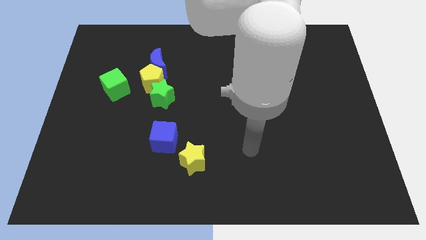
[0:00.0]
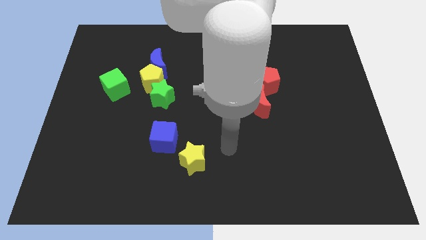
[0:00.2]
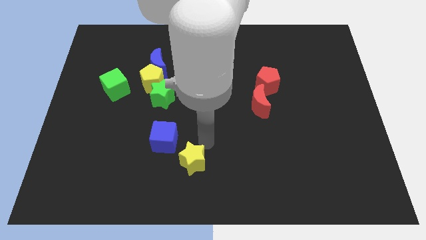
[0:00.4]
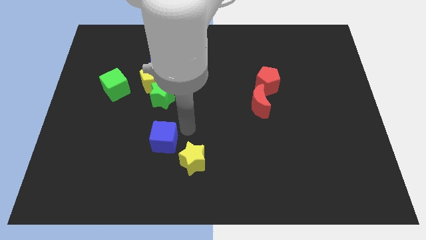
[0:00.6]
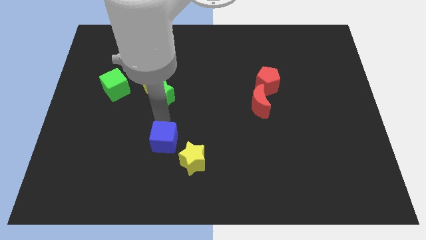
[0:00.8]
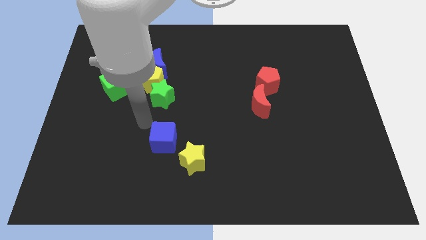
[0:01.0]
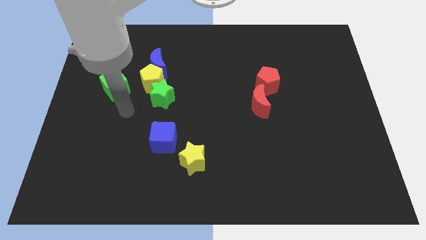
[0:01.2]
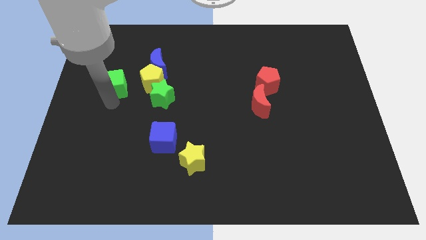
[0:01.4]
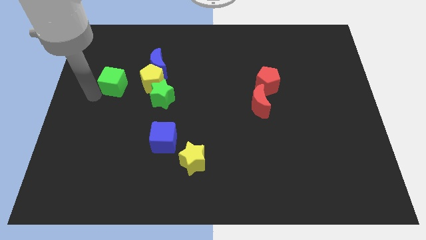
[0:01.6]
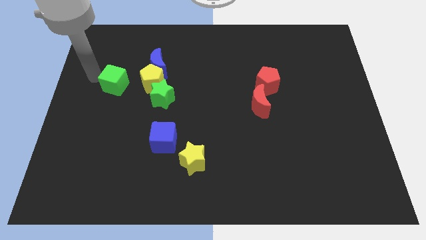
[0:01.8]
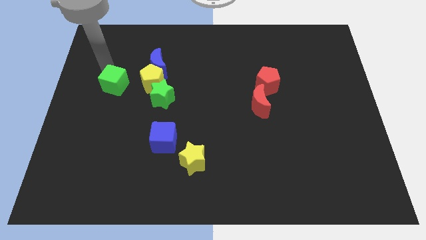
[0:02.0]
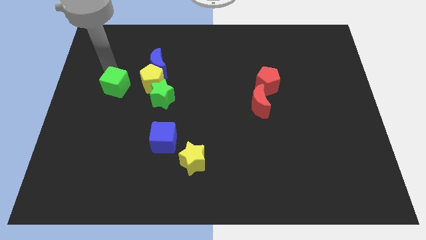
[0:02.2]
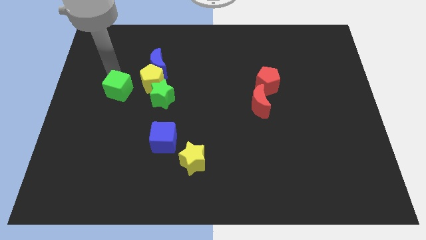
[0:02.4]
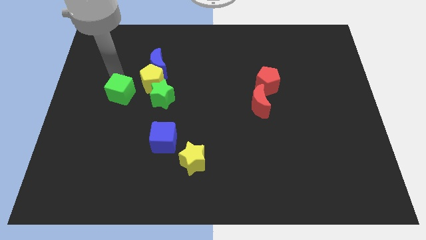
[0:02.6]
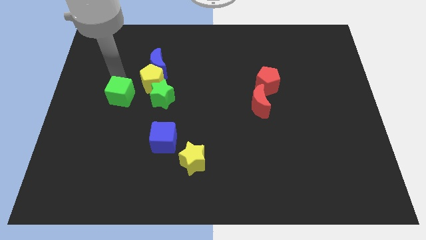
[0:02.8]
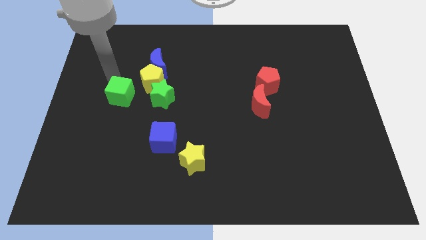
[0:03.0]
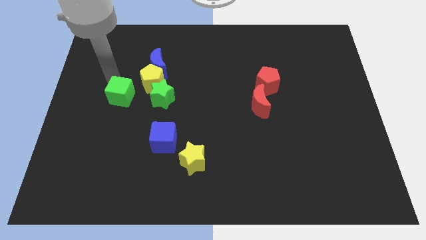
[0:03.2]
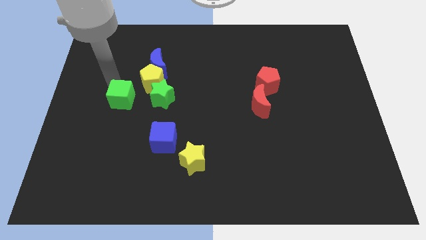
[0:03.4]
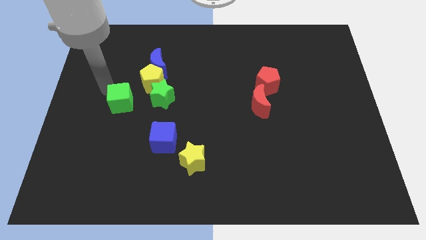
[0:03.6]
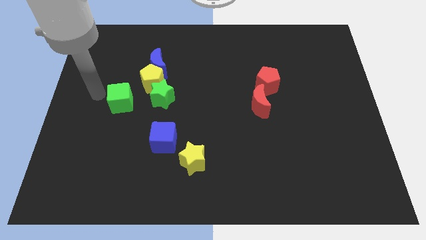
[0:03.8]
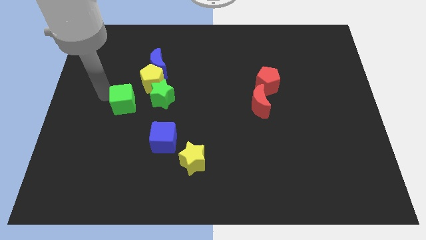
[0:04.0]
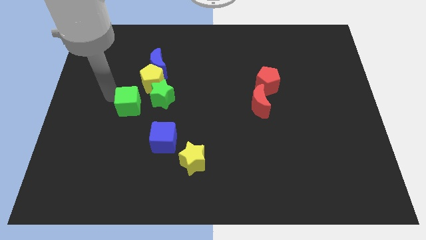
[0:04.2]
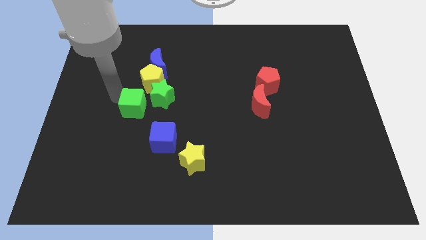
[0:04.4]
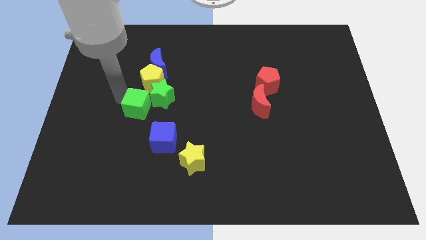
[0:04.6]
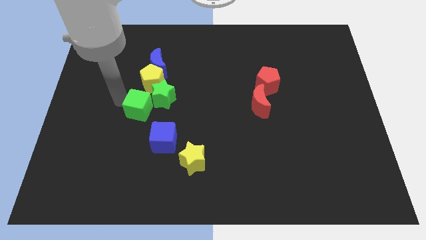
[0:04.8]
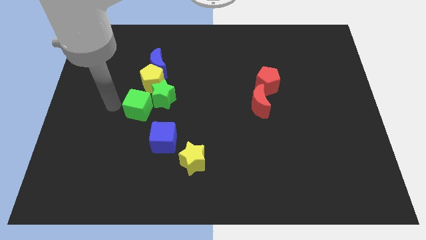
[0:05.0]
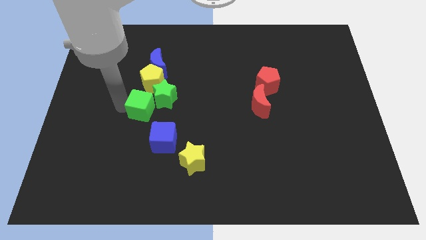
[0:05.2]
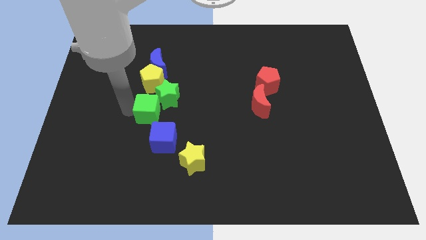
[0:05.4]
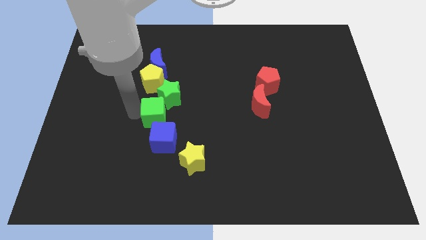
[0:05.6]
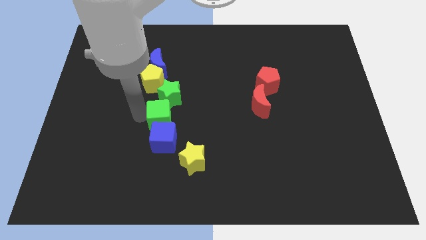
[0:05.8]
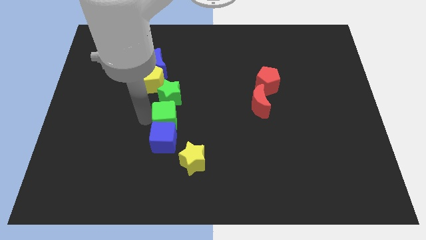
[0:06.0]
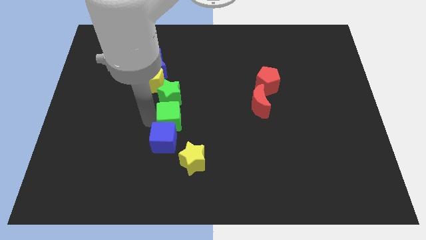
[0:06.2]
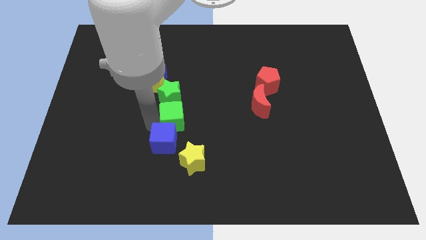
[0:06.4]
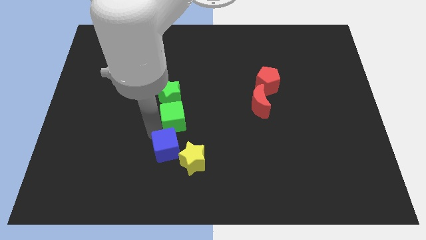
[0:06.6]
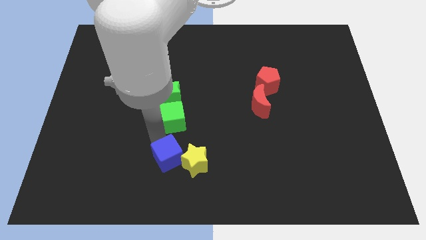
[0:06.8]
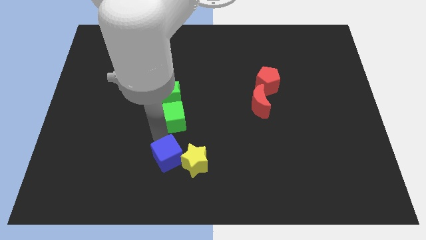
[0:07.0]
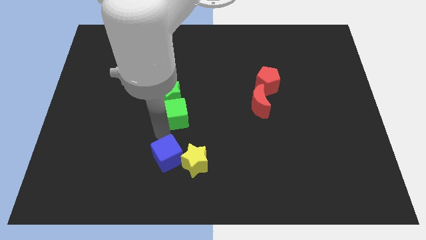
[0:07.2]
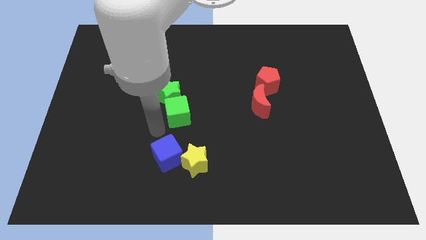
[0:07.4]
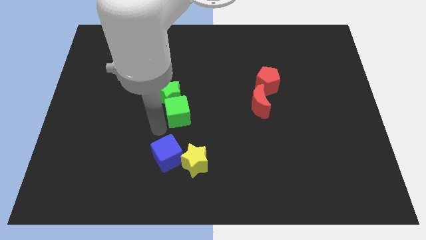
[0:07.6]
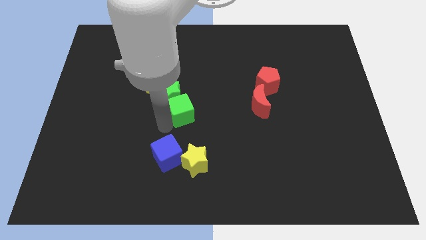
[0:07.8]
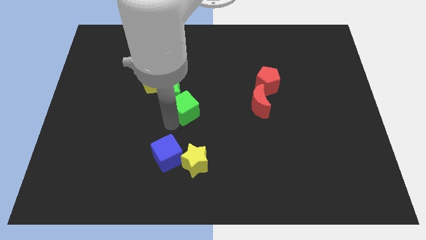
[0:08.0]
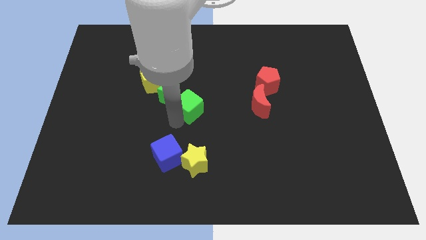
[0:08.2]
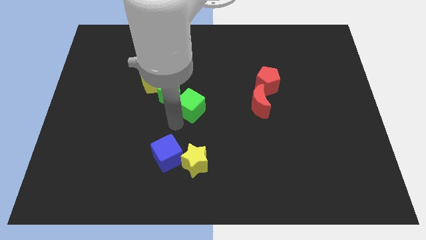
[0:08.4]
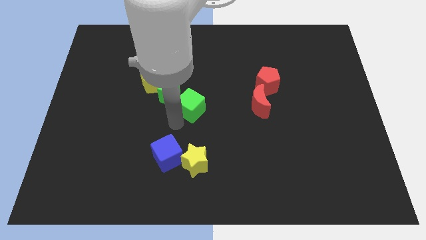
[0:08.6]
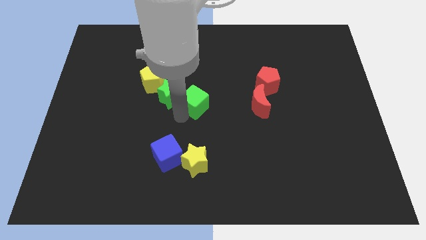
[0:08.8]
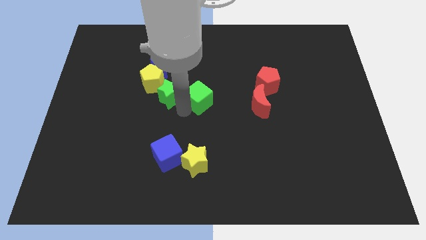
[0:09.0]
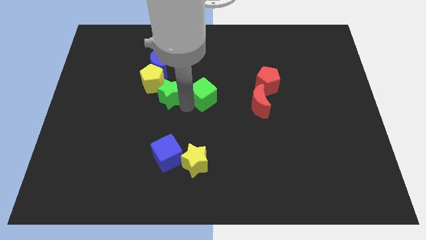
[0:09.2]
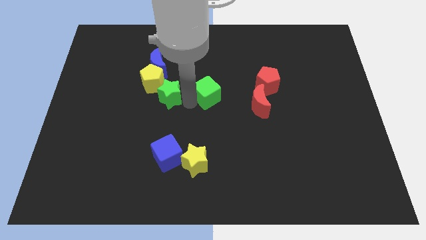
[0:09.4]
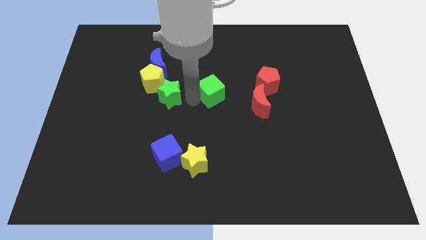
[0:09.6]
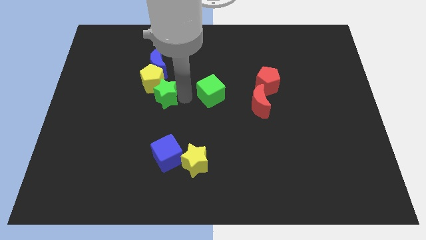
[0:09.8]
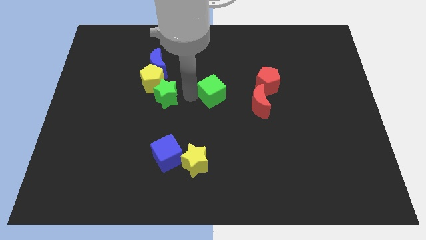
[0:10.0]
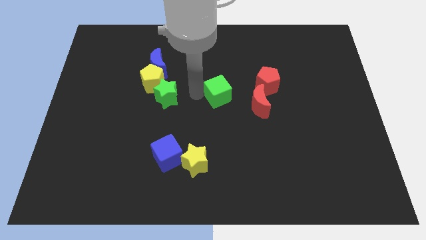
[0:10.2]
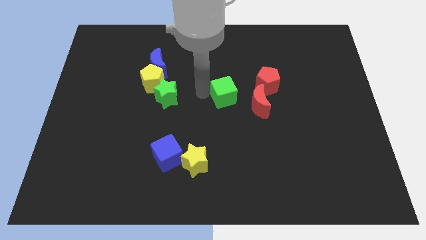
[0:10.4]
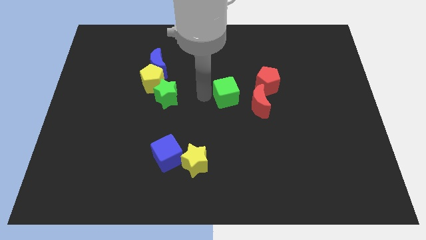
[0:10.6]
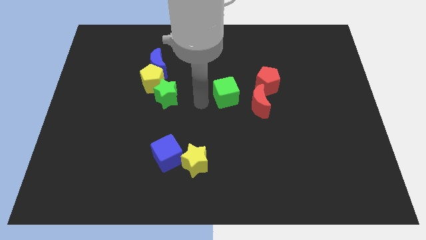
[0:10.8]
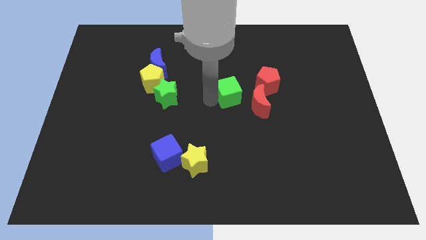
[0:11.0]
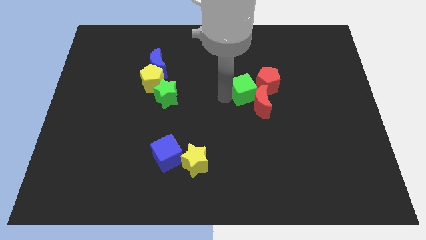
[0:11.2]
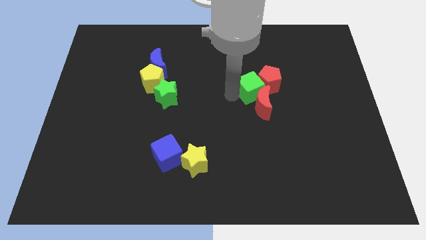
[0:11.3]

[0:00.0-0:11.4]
push the green cube next to the red pentagon

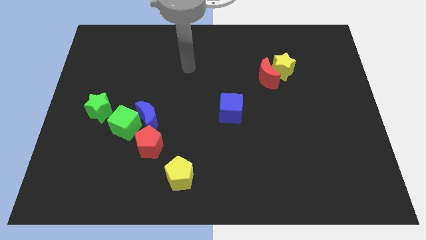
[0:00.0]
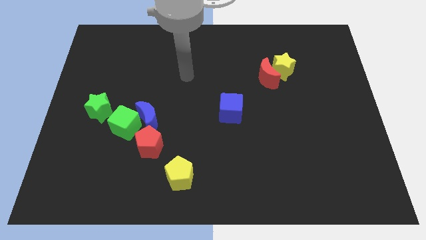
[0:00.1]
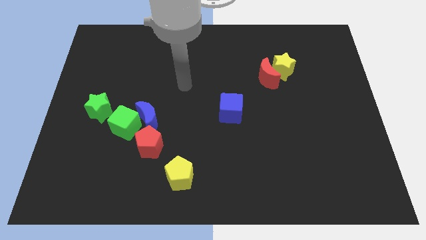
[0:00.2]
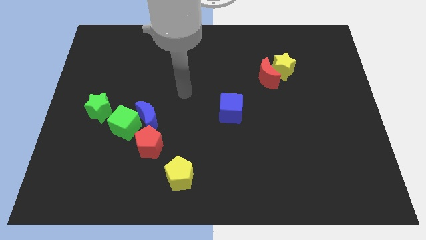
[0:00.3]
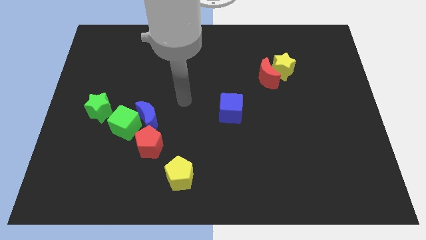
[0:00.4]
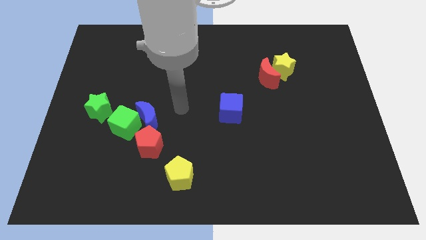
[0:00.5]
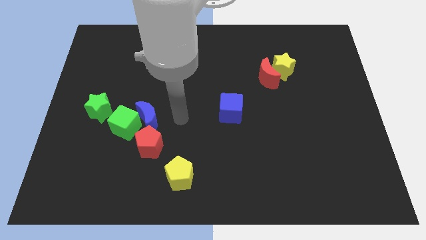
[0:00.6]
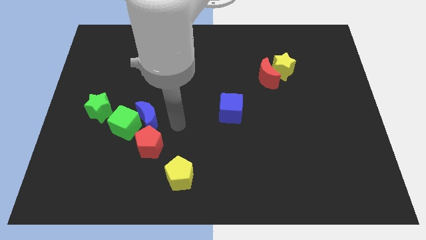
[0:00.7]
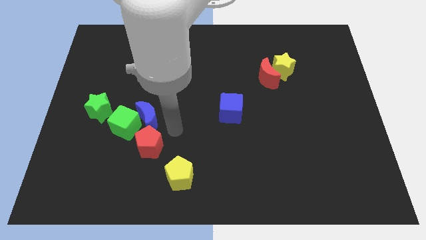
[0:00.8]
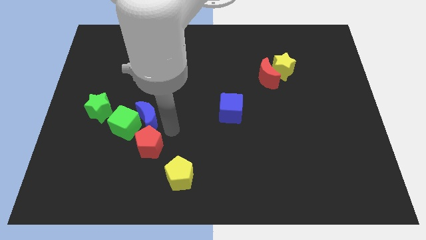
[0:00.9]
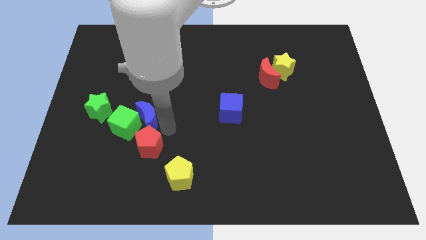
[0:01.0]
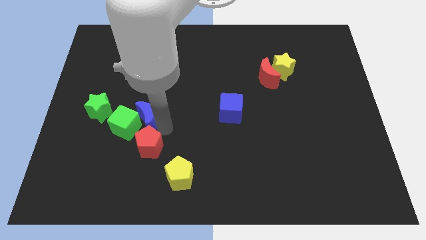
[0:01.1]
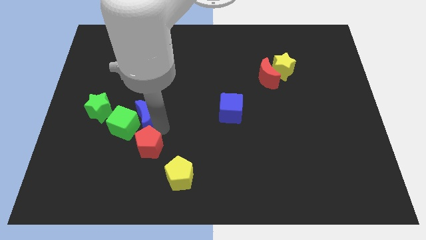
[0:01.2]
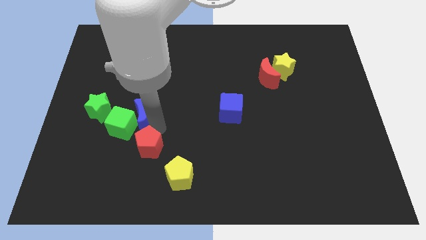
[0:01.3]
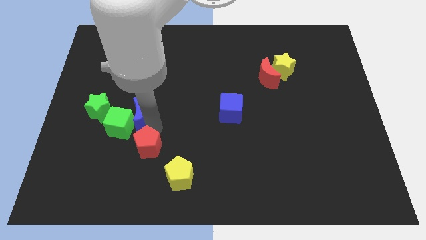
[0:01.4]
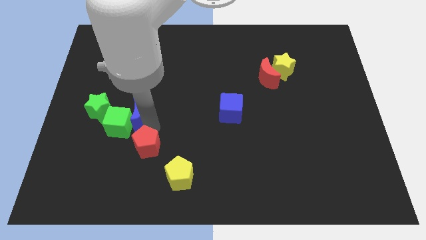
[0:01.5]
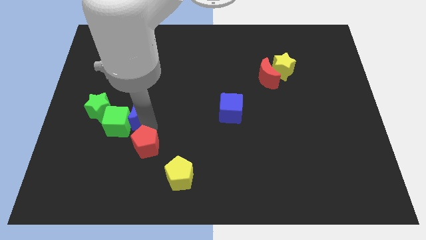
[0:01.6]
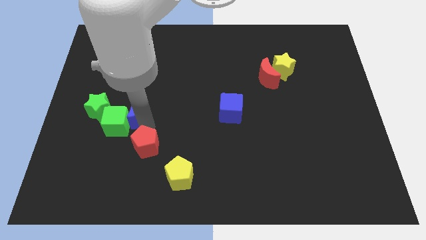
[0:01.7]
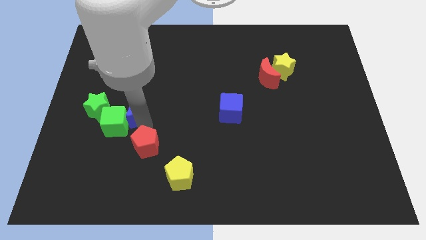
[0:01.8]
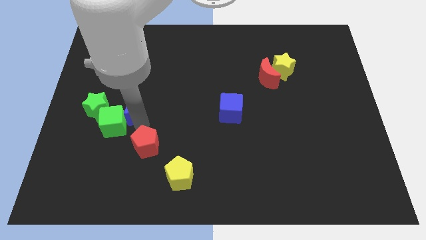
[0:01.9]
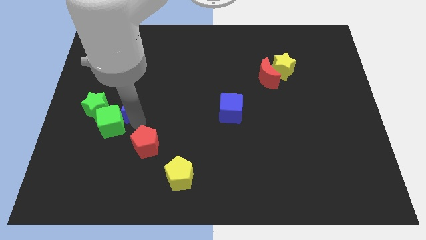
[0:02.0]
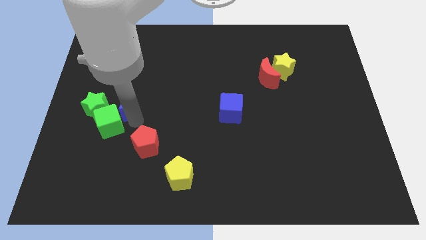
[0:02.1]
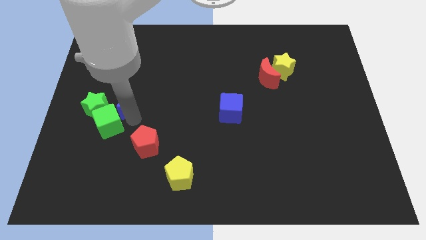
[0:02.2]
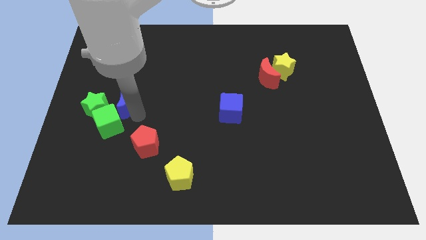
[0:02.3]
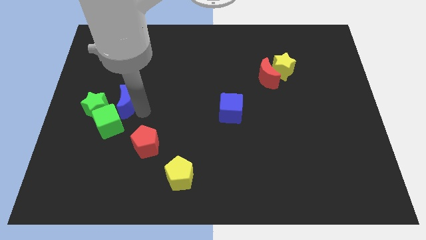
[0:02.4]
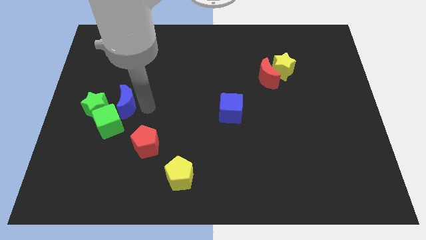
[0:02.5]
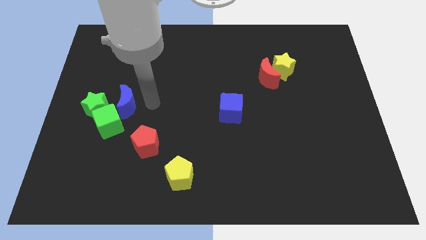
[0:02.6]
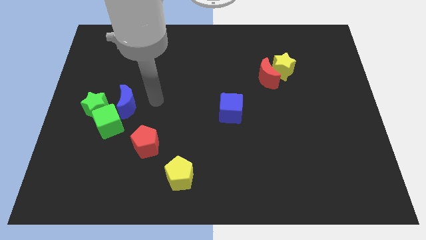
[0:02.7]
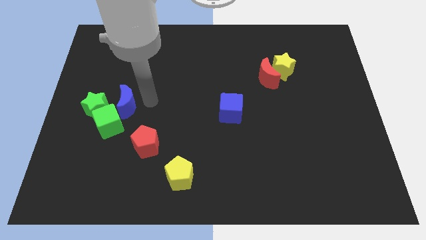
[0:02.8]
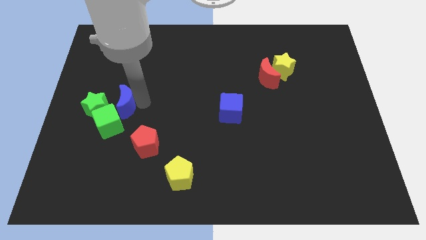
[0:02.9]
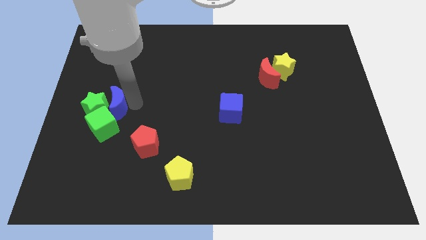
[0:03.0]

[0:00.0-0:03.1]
slide the blue moon close to the green star
